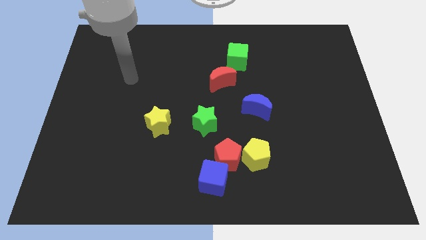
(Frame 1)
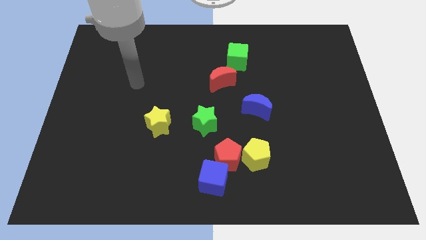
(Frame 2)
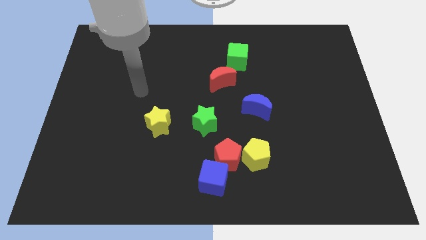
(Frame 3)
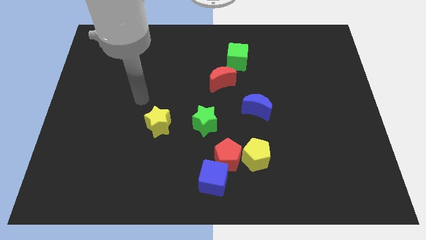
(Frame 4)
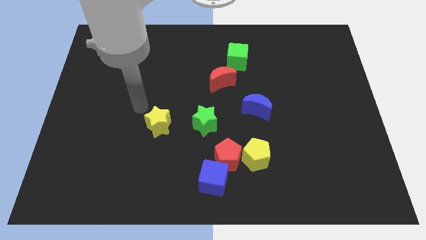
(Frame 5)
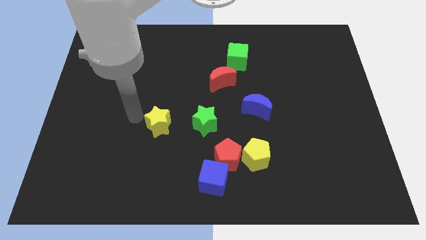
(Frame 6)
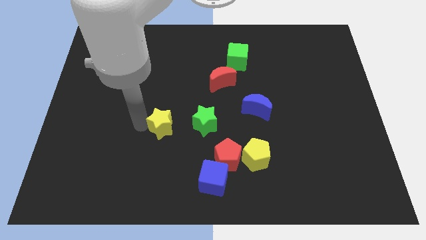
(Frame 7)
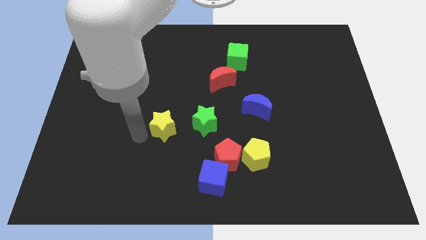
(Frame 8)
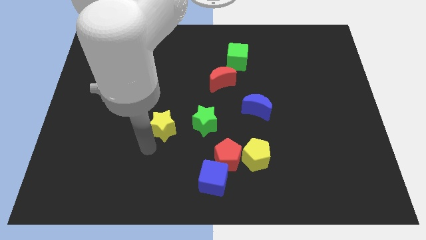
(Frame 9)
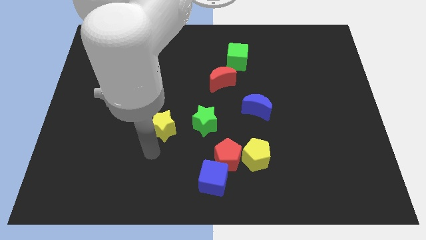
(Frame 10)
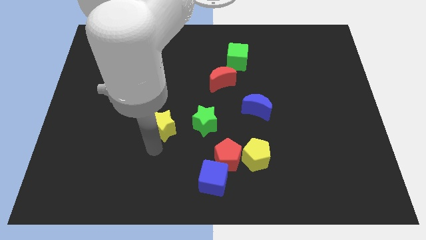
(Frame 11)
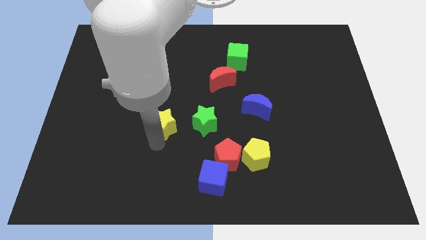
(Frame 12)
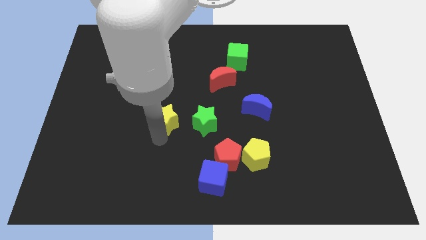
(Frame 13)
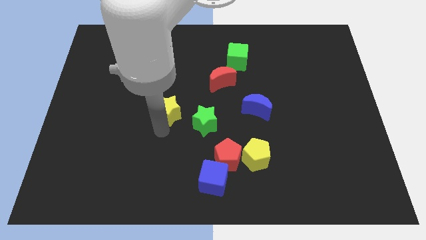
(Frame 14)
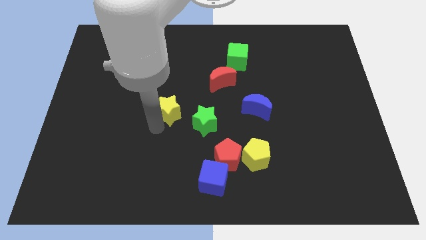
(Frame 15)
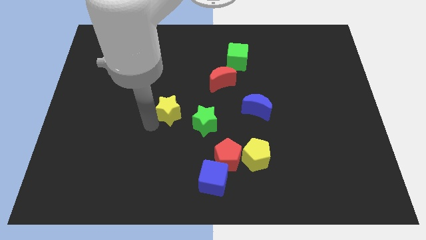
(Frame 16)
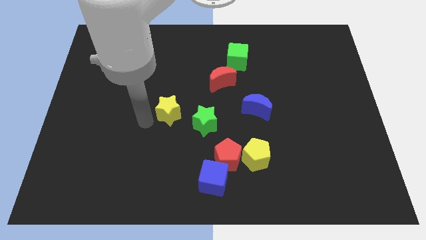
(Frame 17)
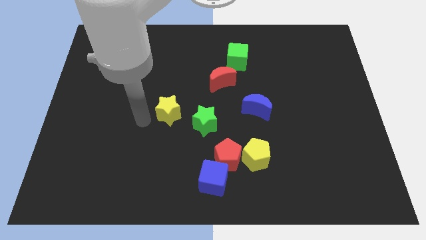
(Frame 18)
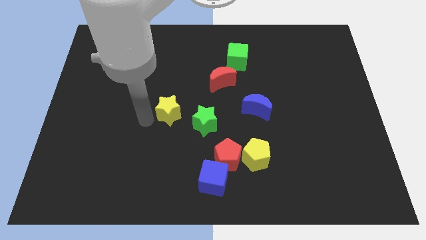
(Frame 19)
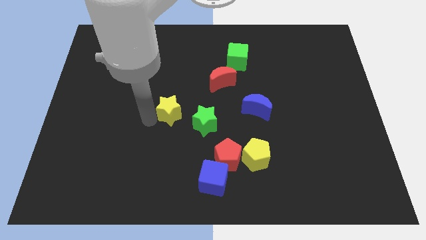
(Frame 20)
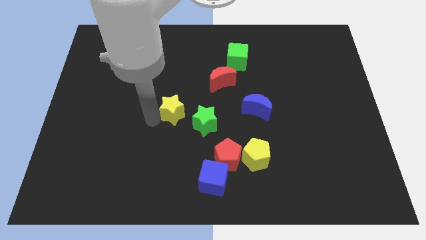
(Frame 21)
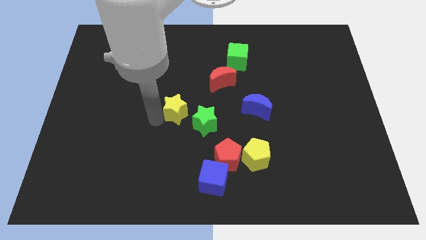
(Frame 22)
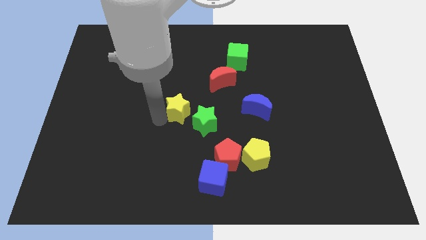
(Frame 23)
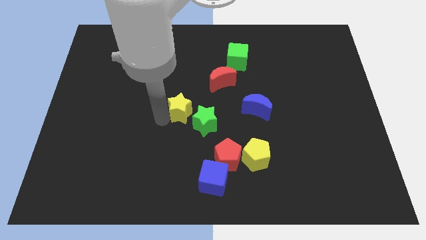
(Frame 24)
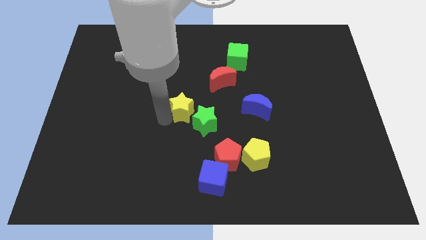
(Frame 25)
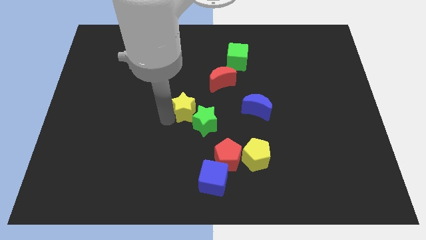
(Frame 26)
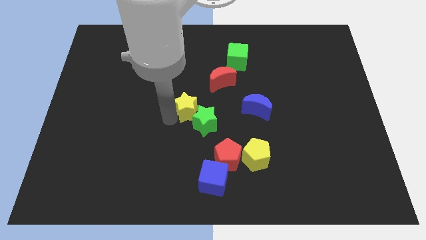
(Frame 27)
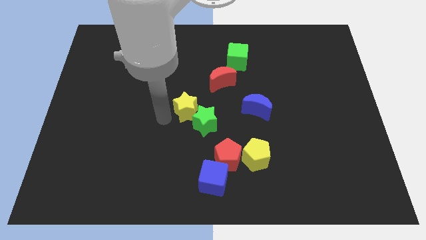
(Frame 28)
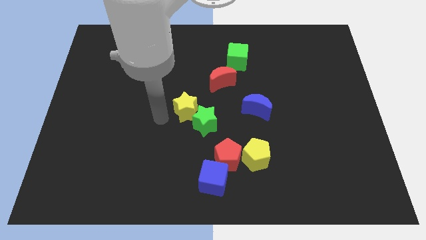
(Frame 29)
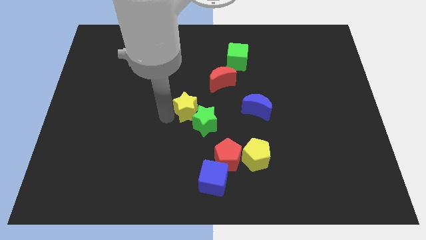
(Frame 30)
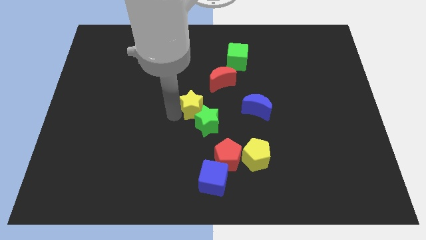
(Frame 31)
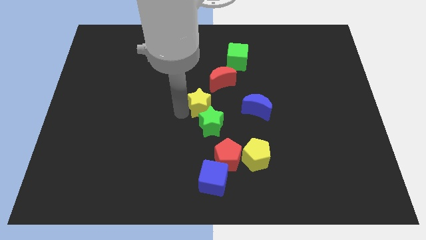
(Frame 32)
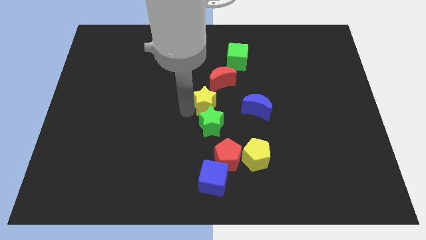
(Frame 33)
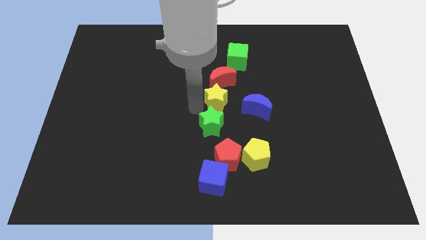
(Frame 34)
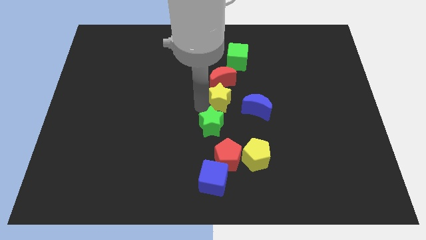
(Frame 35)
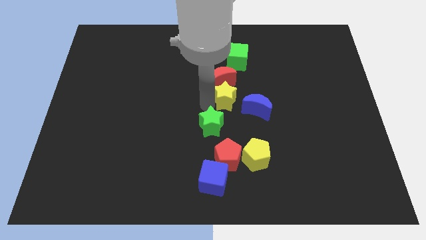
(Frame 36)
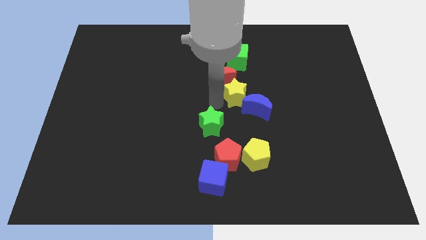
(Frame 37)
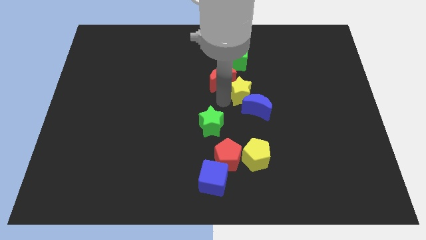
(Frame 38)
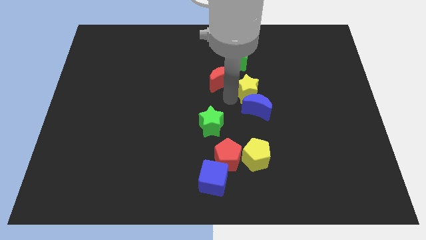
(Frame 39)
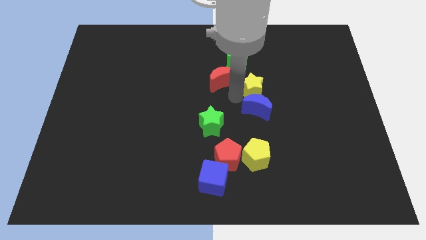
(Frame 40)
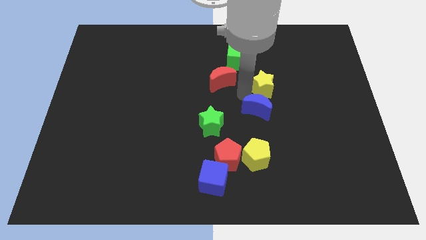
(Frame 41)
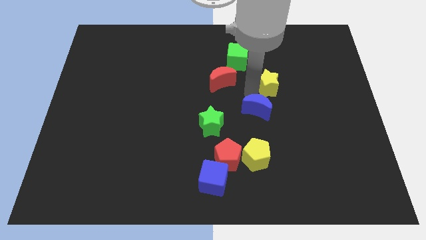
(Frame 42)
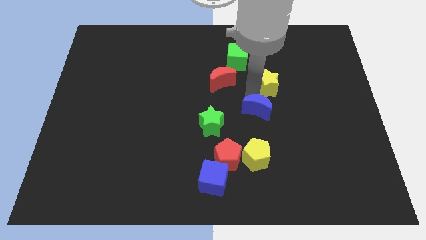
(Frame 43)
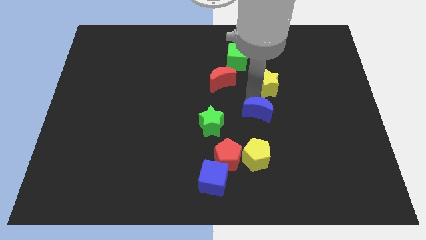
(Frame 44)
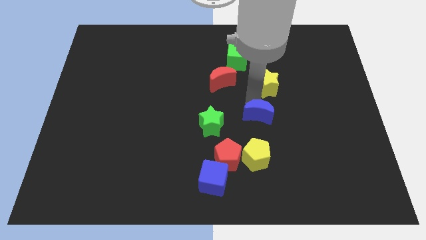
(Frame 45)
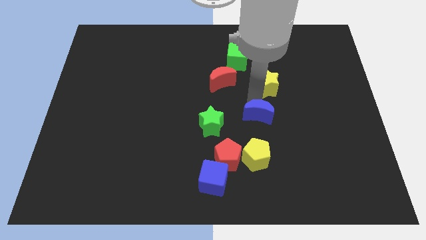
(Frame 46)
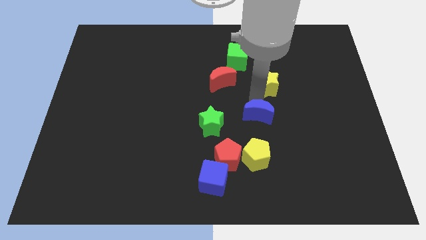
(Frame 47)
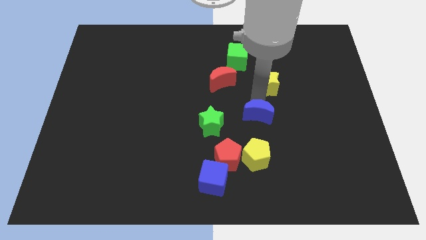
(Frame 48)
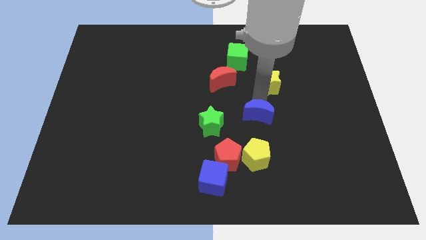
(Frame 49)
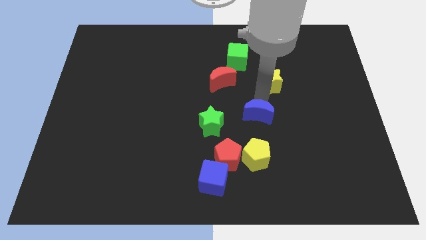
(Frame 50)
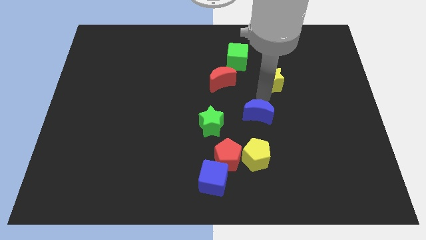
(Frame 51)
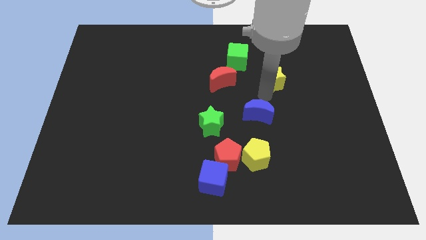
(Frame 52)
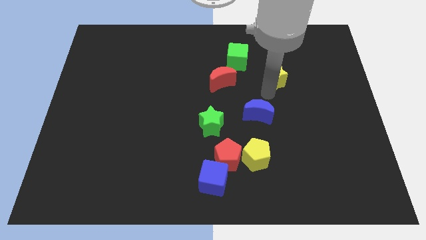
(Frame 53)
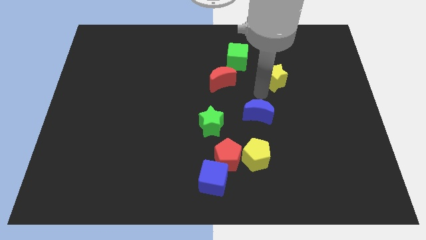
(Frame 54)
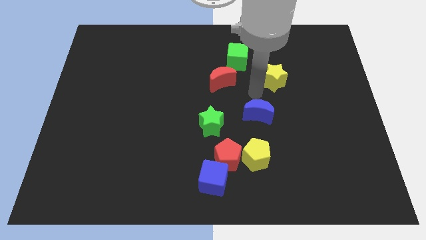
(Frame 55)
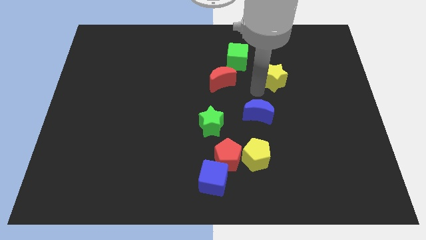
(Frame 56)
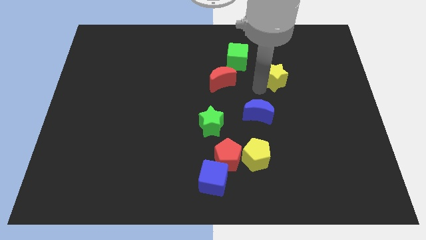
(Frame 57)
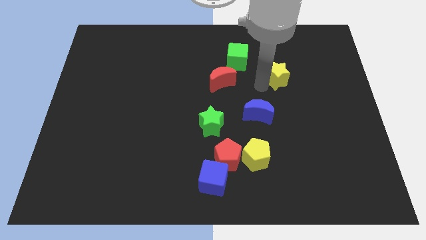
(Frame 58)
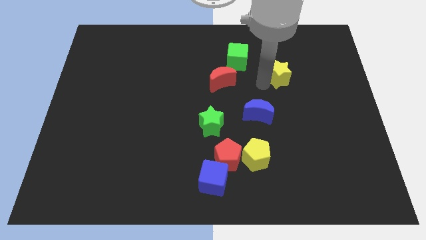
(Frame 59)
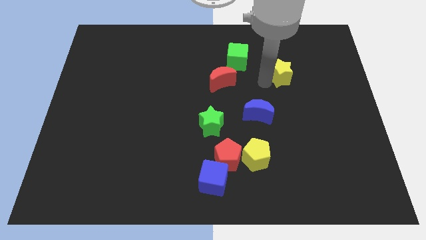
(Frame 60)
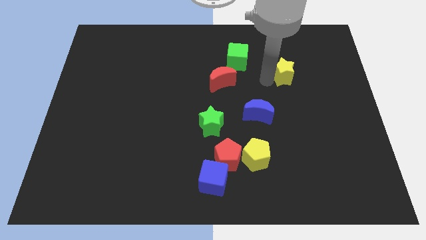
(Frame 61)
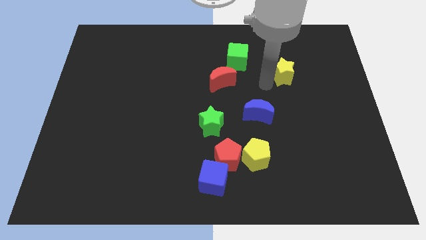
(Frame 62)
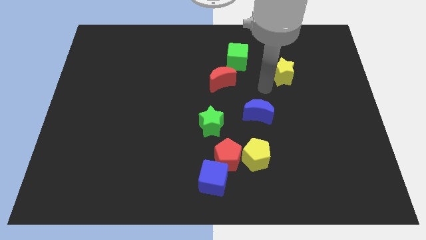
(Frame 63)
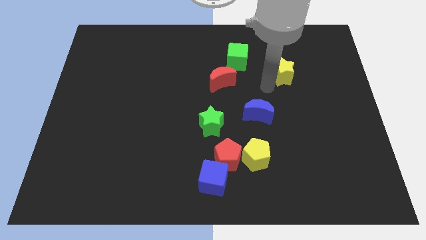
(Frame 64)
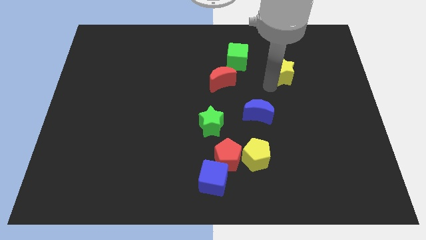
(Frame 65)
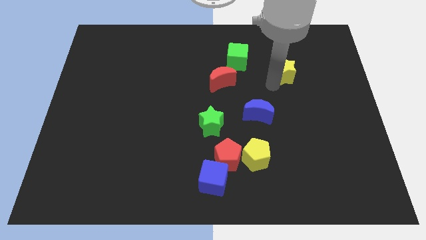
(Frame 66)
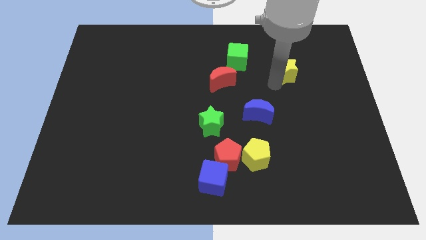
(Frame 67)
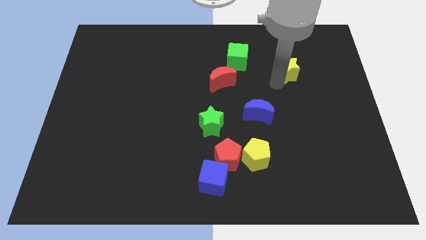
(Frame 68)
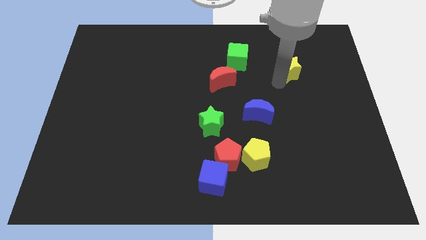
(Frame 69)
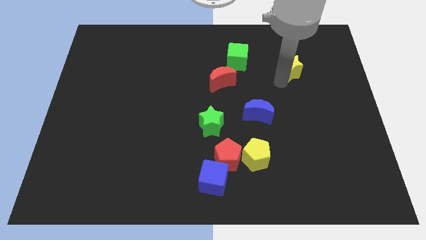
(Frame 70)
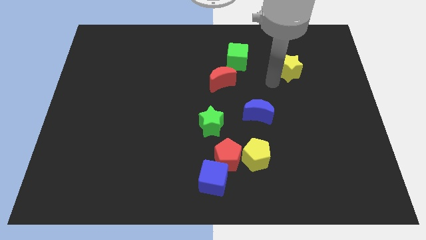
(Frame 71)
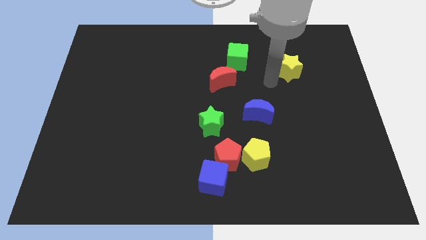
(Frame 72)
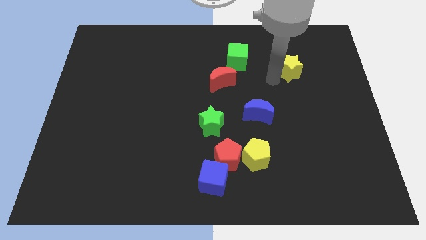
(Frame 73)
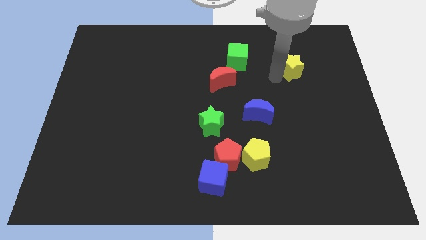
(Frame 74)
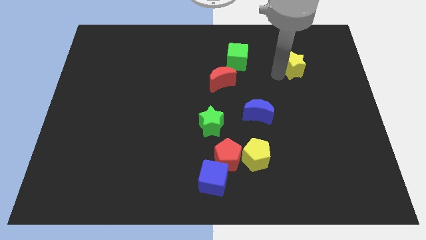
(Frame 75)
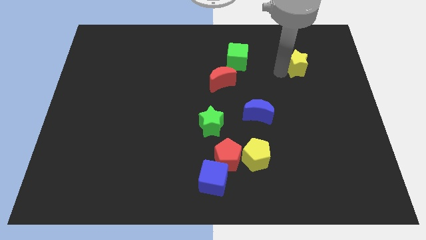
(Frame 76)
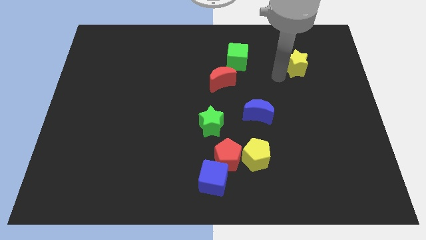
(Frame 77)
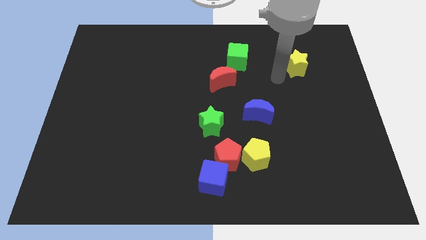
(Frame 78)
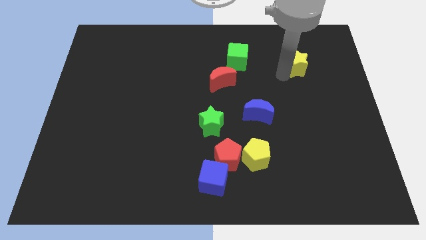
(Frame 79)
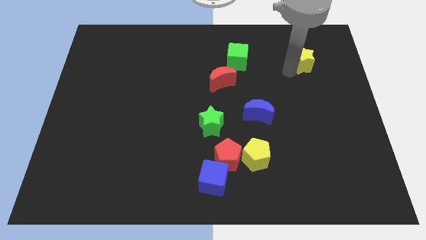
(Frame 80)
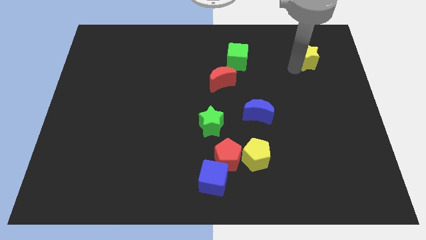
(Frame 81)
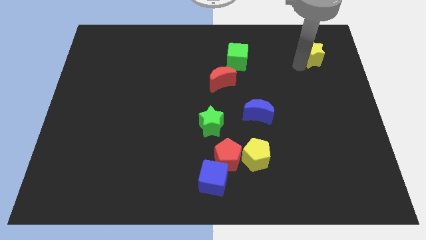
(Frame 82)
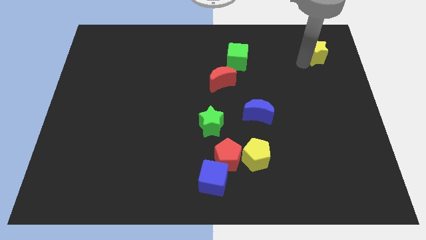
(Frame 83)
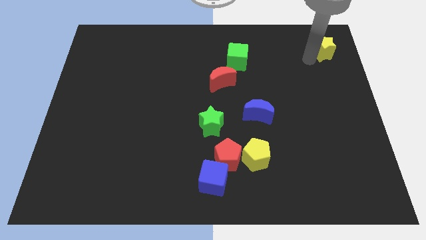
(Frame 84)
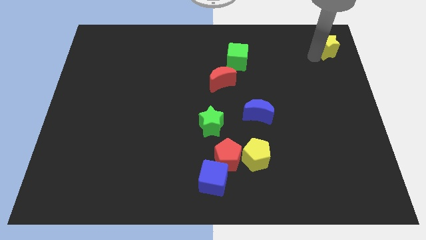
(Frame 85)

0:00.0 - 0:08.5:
push the yellow star to the upper right corner
